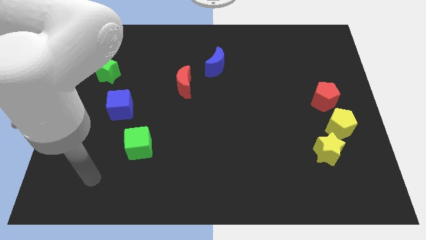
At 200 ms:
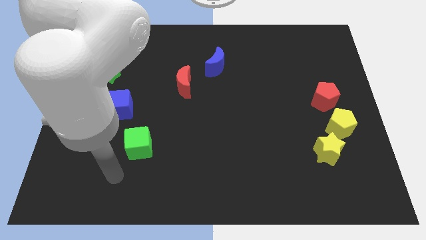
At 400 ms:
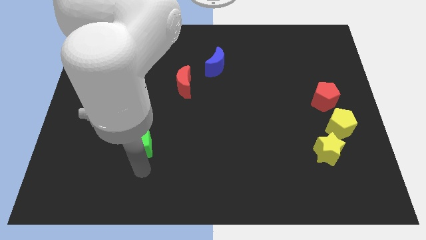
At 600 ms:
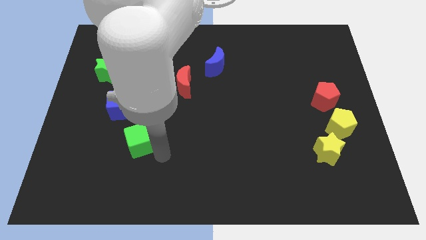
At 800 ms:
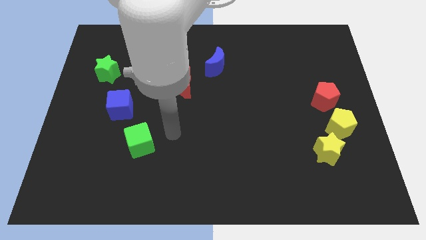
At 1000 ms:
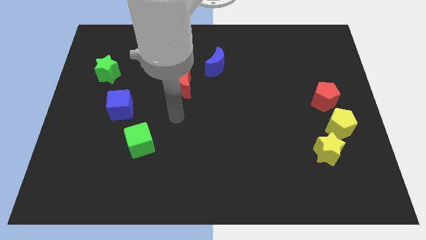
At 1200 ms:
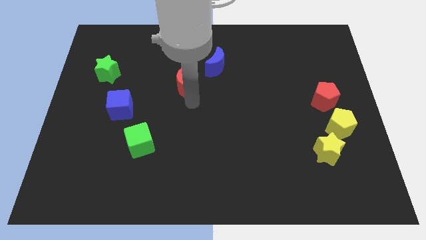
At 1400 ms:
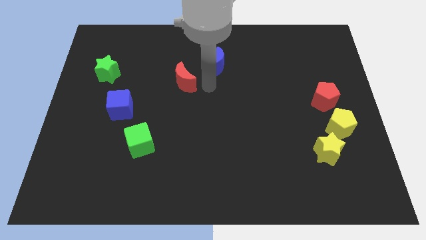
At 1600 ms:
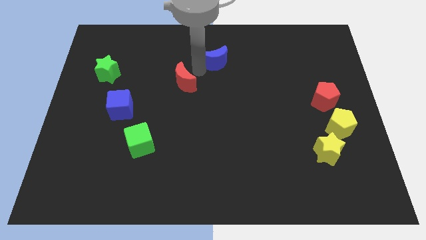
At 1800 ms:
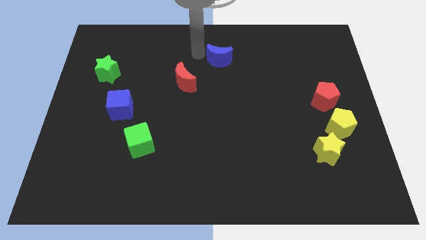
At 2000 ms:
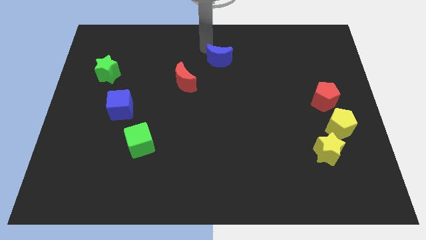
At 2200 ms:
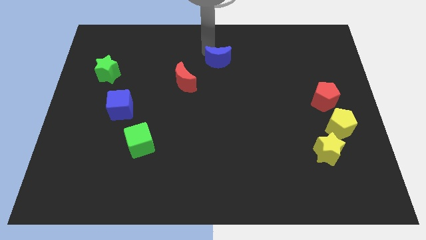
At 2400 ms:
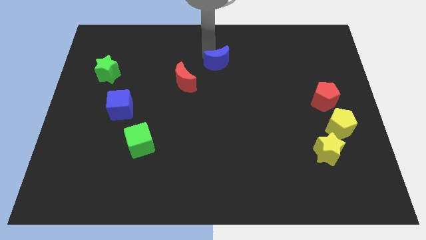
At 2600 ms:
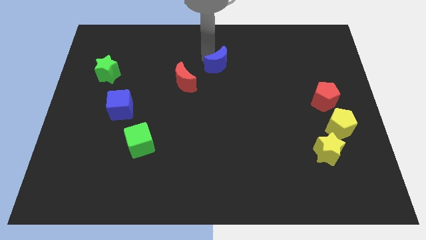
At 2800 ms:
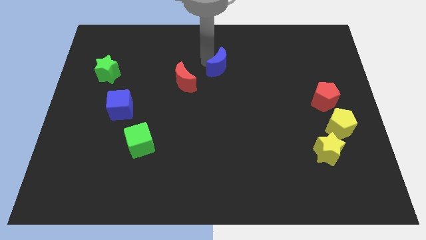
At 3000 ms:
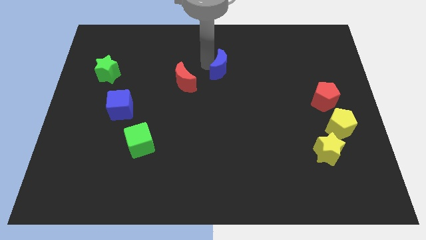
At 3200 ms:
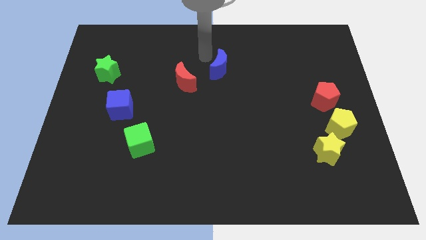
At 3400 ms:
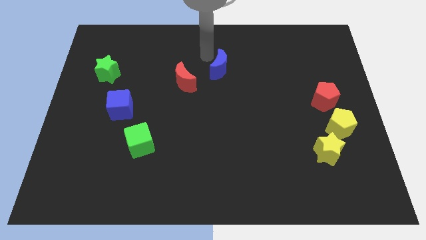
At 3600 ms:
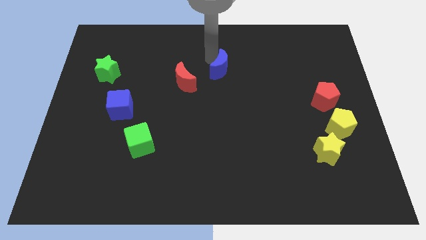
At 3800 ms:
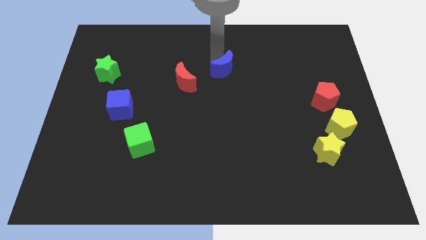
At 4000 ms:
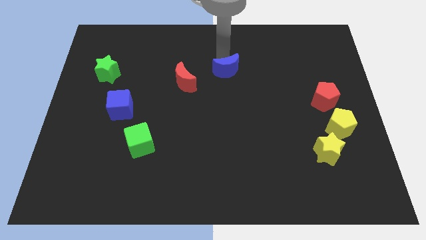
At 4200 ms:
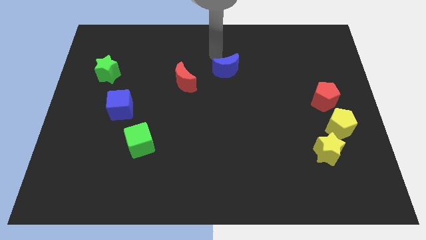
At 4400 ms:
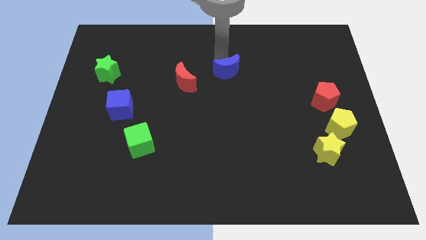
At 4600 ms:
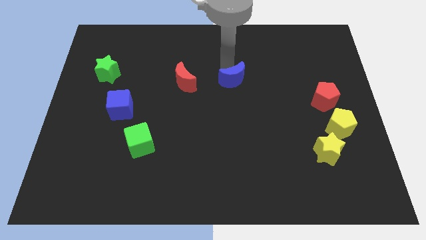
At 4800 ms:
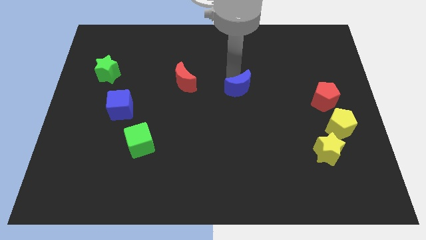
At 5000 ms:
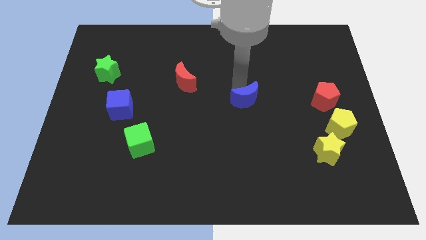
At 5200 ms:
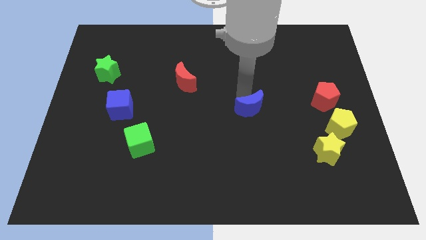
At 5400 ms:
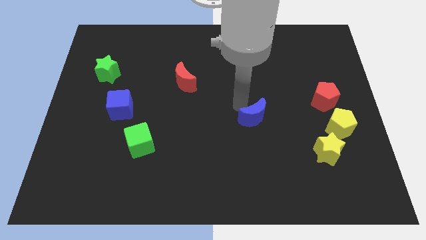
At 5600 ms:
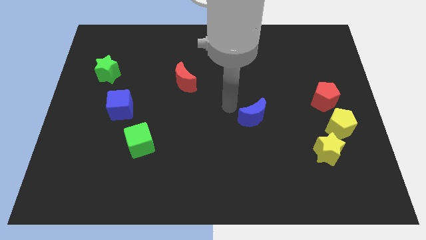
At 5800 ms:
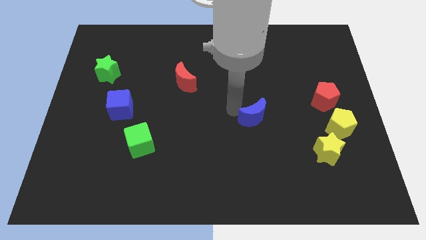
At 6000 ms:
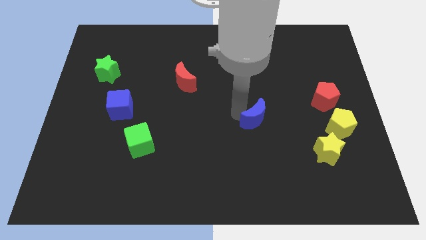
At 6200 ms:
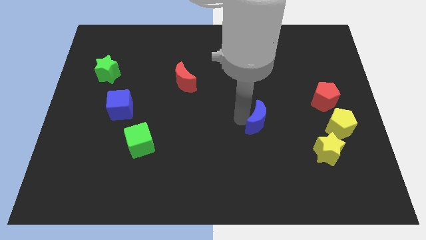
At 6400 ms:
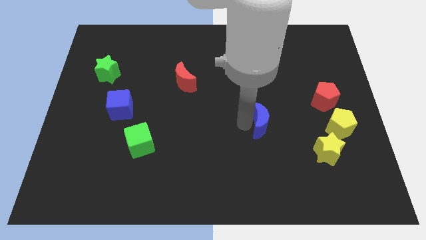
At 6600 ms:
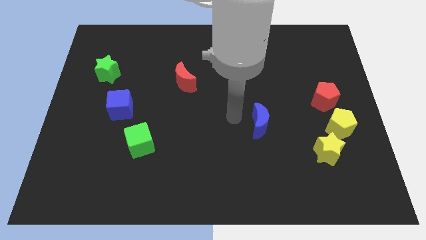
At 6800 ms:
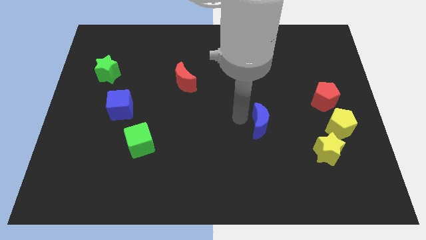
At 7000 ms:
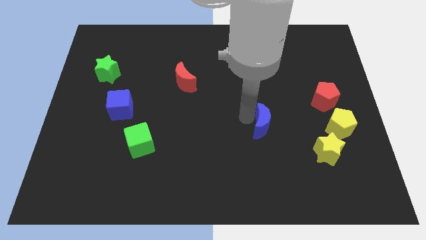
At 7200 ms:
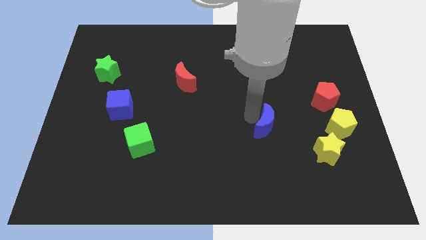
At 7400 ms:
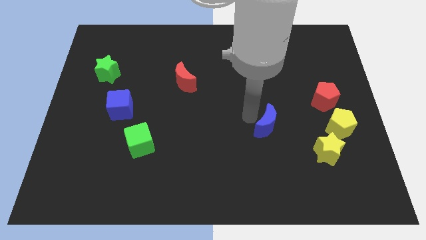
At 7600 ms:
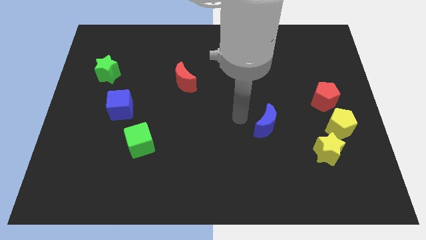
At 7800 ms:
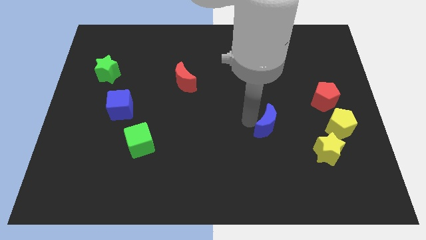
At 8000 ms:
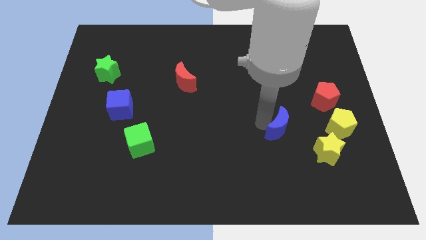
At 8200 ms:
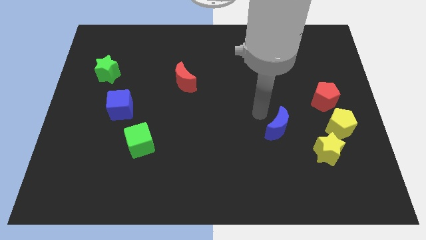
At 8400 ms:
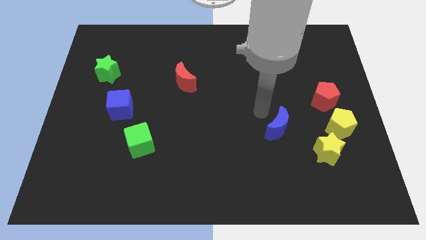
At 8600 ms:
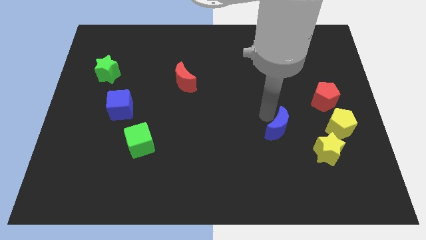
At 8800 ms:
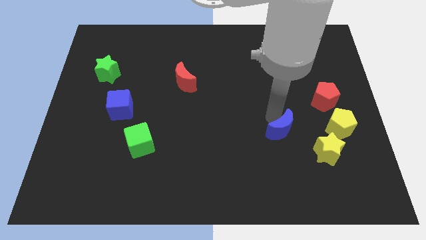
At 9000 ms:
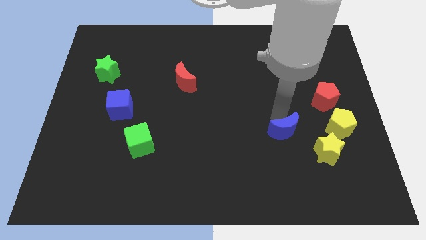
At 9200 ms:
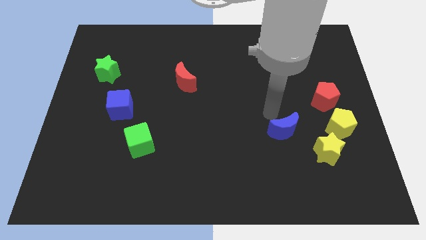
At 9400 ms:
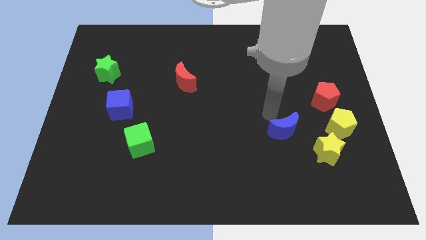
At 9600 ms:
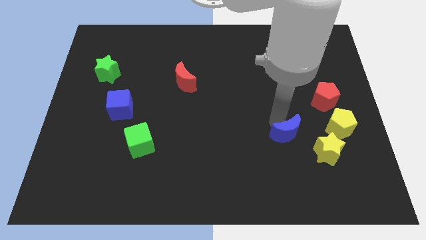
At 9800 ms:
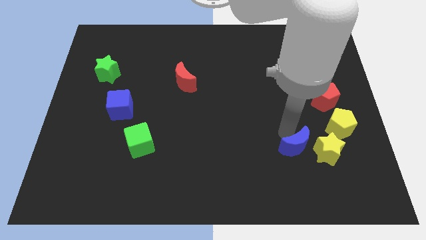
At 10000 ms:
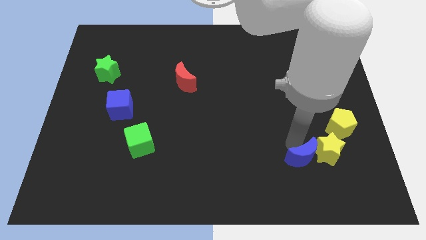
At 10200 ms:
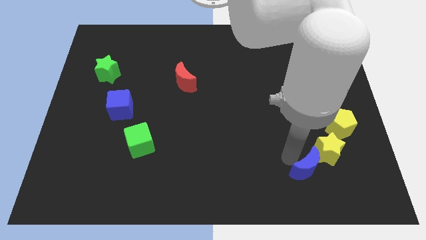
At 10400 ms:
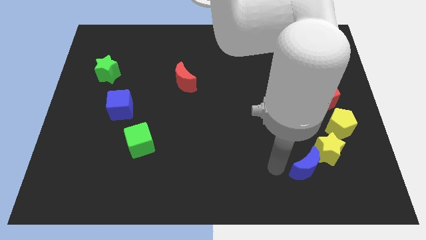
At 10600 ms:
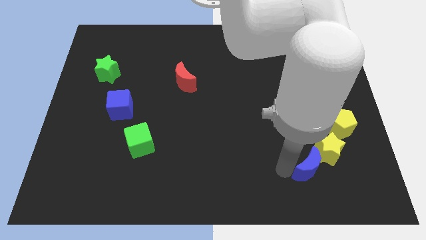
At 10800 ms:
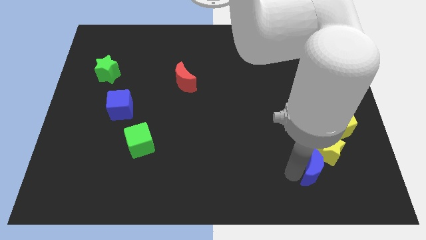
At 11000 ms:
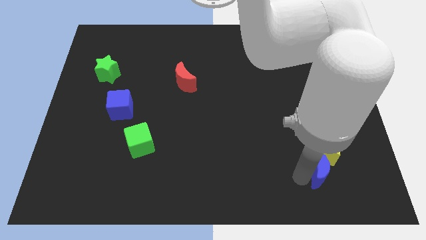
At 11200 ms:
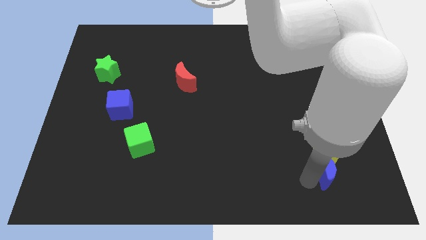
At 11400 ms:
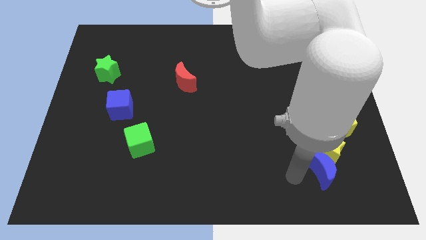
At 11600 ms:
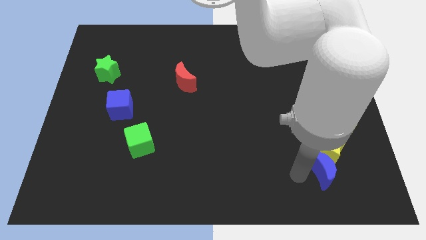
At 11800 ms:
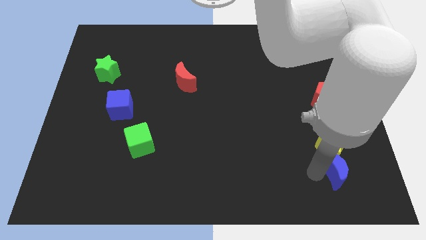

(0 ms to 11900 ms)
push the blue moon to the bottom side of the yellow pentagon

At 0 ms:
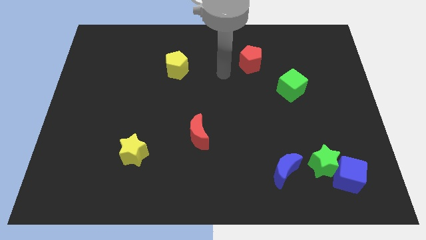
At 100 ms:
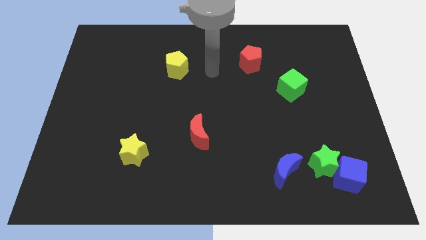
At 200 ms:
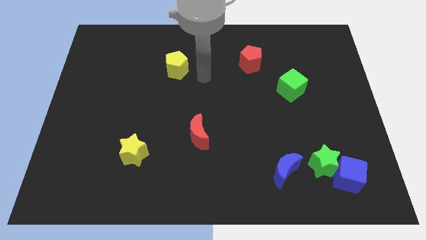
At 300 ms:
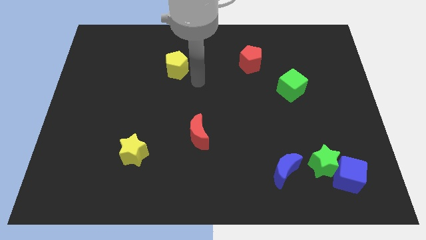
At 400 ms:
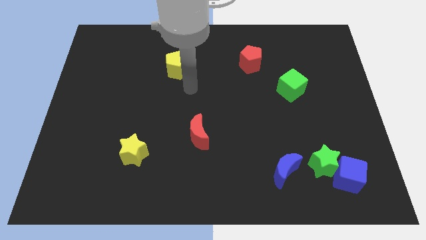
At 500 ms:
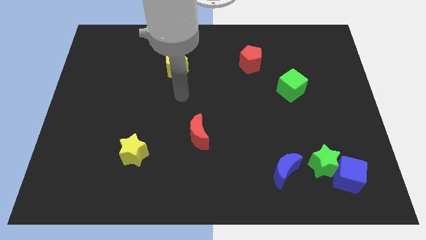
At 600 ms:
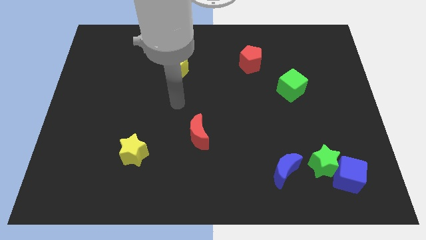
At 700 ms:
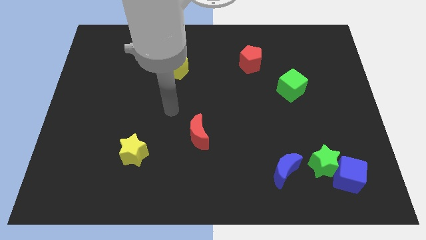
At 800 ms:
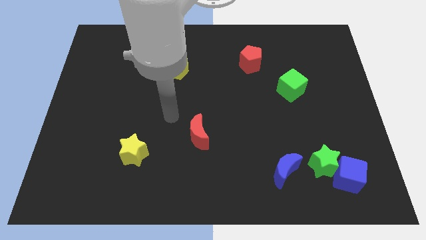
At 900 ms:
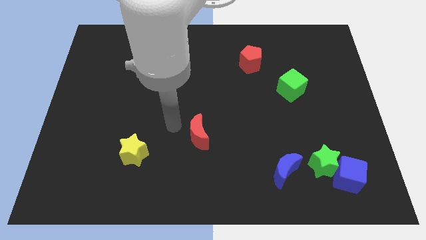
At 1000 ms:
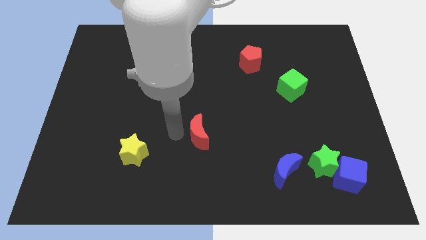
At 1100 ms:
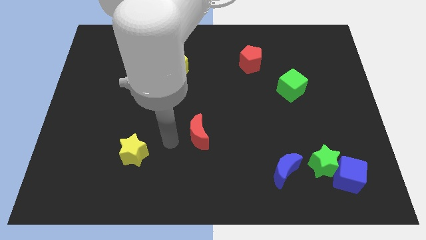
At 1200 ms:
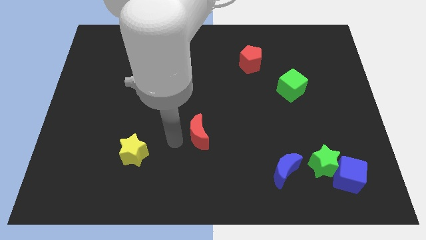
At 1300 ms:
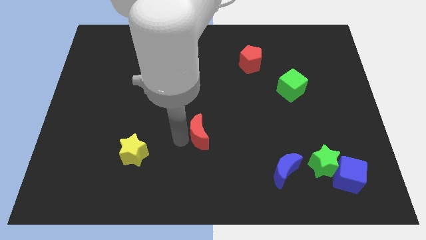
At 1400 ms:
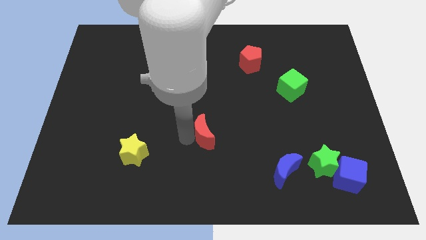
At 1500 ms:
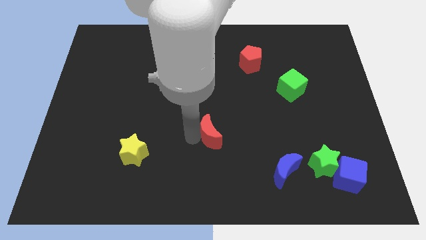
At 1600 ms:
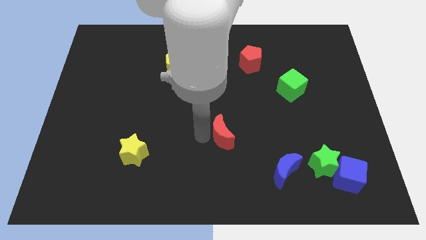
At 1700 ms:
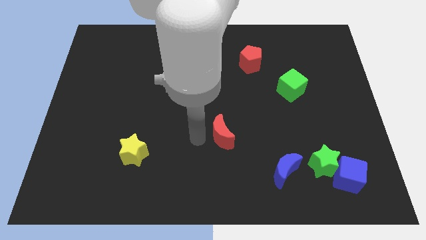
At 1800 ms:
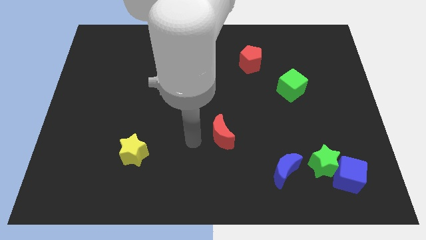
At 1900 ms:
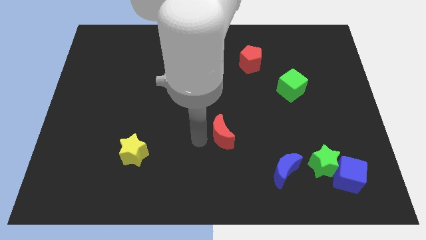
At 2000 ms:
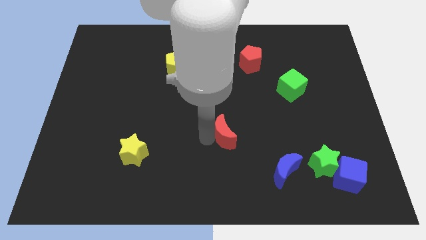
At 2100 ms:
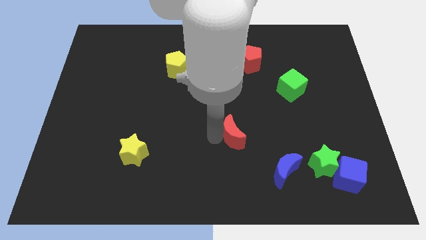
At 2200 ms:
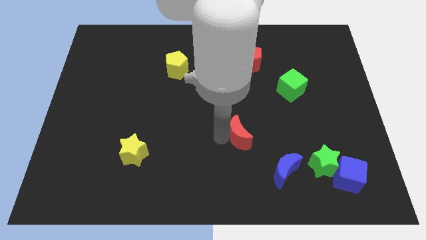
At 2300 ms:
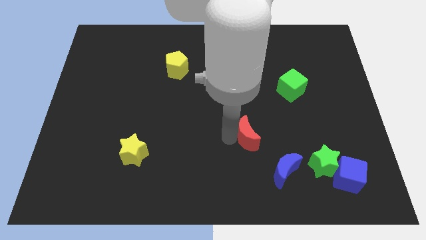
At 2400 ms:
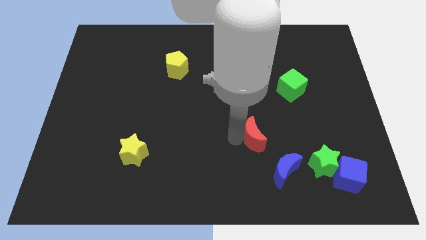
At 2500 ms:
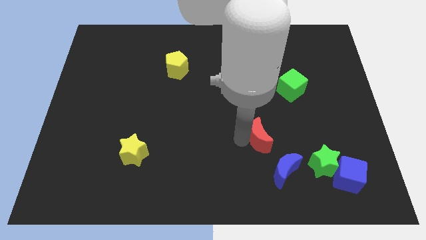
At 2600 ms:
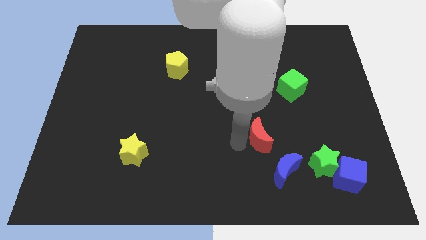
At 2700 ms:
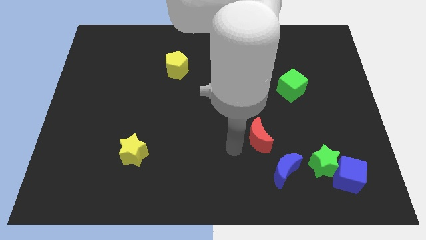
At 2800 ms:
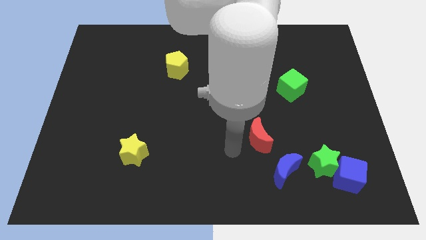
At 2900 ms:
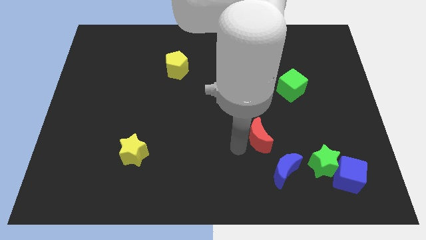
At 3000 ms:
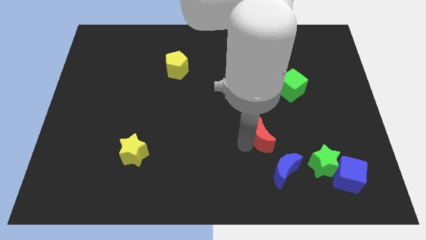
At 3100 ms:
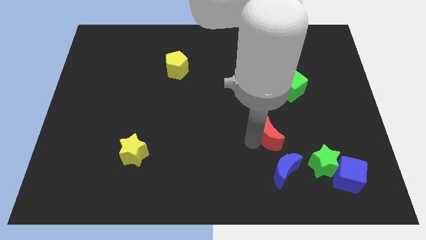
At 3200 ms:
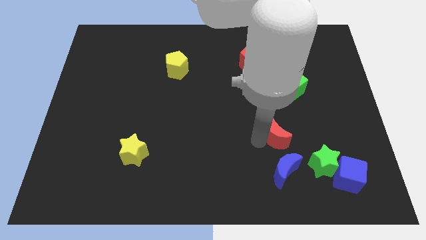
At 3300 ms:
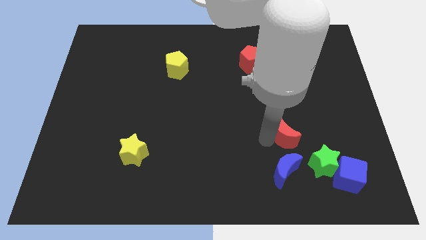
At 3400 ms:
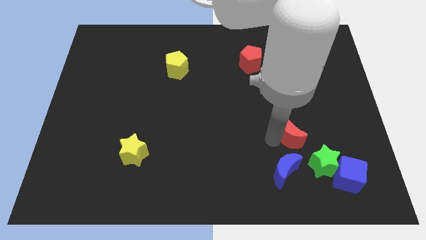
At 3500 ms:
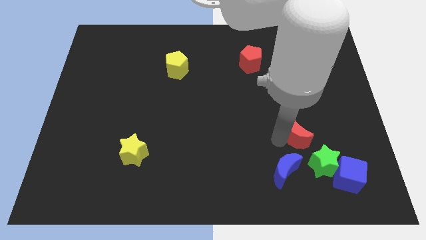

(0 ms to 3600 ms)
put the red moon to the top of the green star
